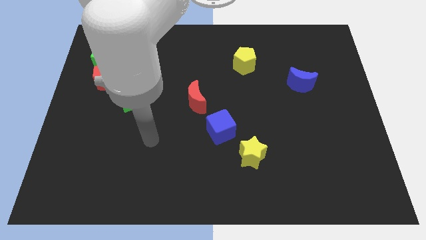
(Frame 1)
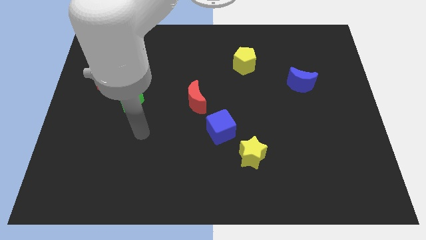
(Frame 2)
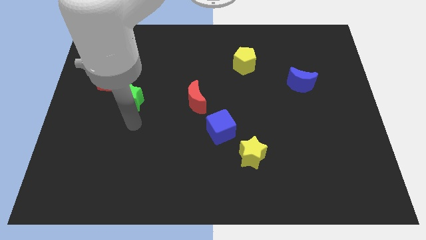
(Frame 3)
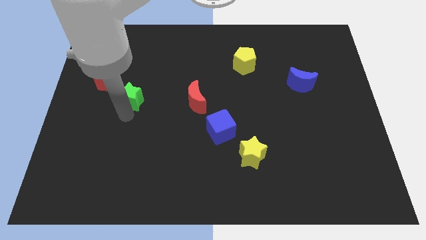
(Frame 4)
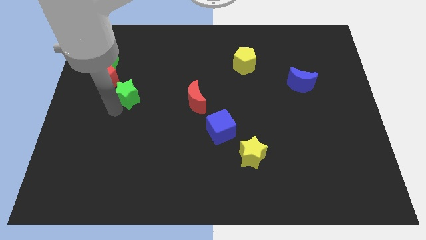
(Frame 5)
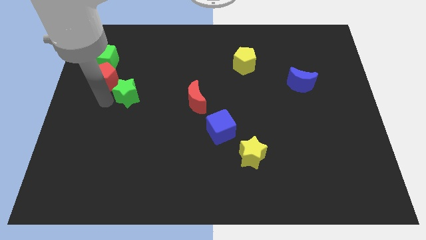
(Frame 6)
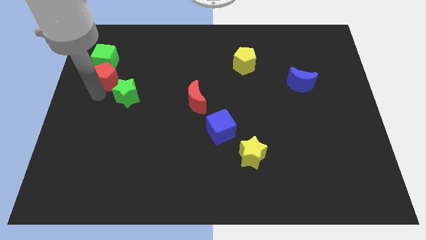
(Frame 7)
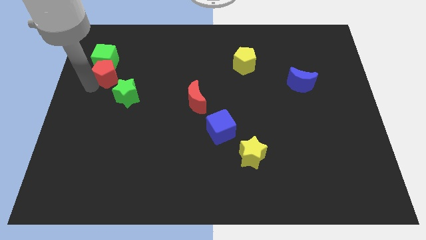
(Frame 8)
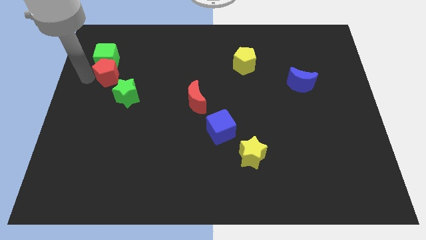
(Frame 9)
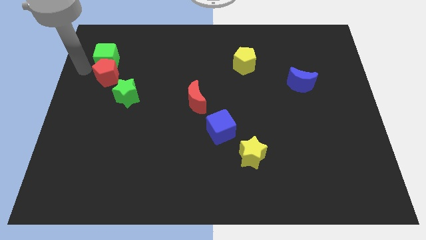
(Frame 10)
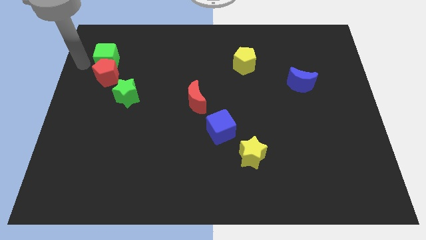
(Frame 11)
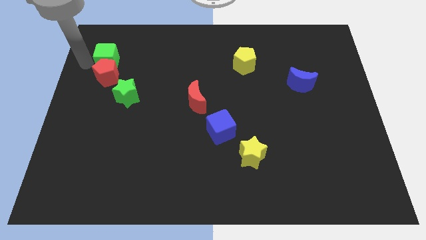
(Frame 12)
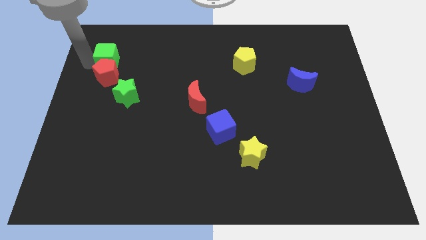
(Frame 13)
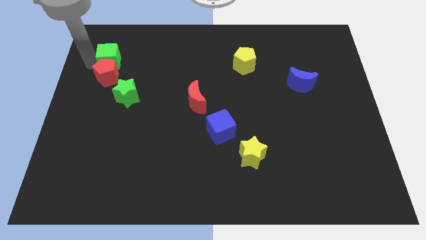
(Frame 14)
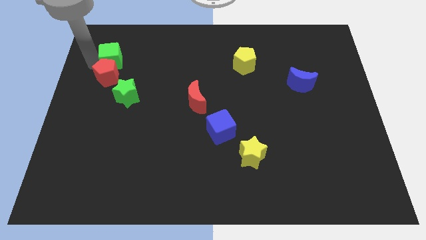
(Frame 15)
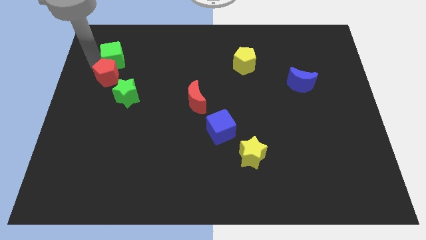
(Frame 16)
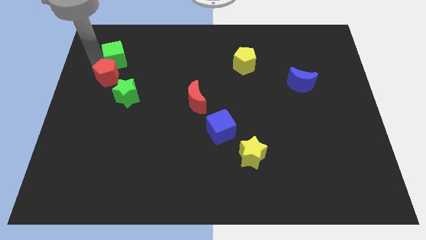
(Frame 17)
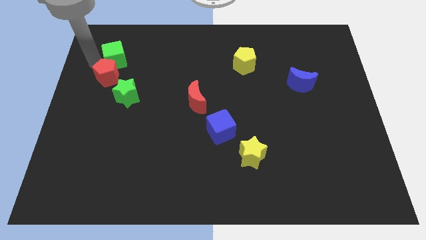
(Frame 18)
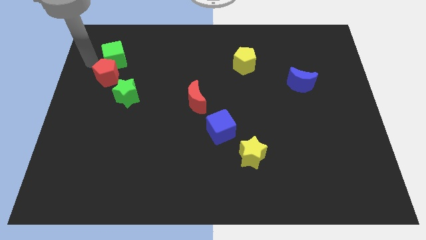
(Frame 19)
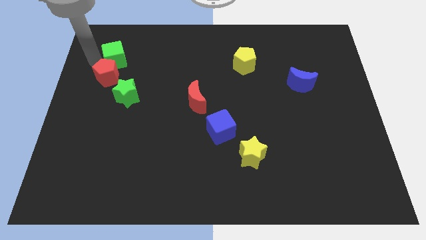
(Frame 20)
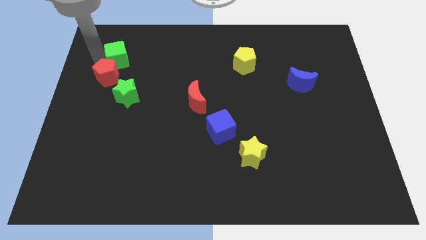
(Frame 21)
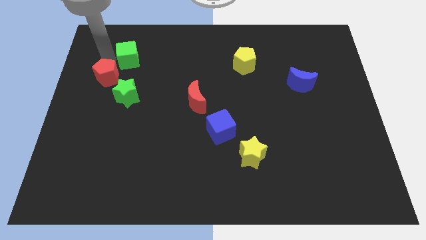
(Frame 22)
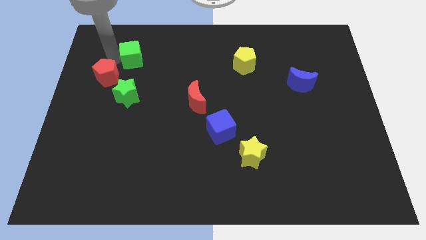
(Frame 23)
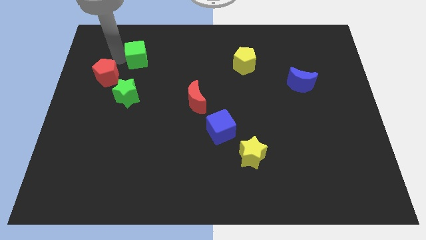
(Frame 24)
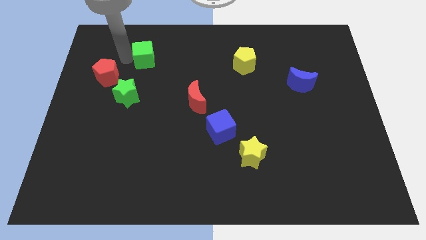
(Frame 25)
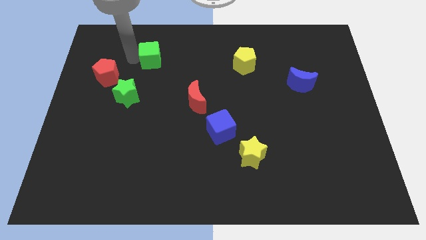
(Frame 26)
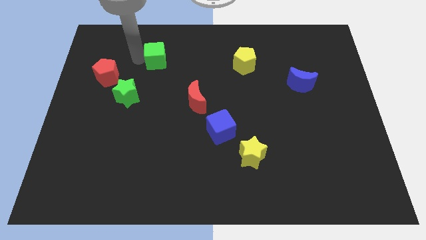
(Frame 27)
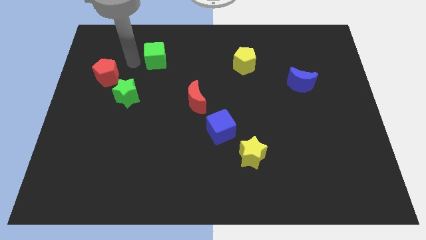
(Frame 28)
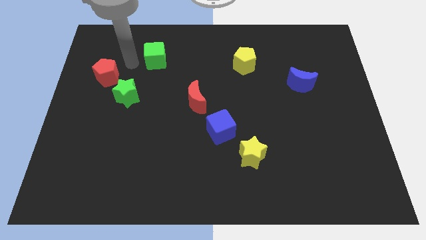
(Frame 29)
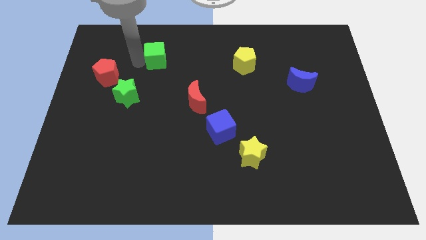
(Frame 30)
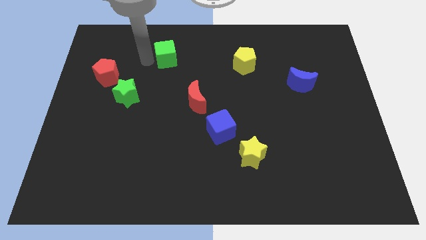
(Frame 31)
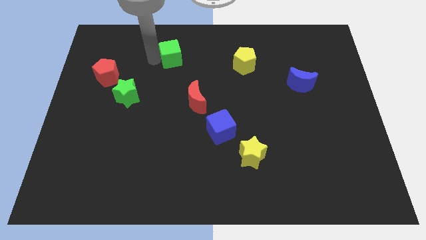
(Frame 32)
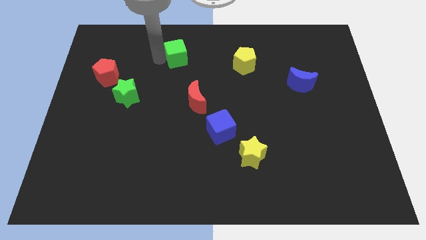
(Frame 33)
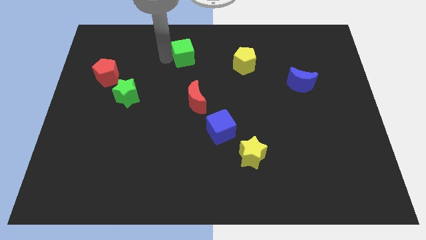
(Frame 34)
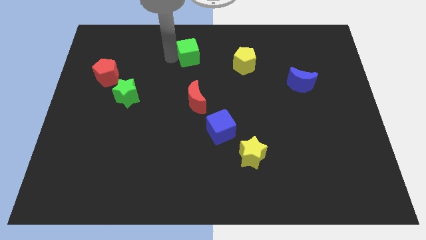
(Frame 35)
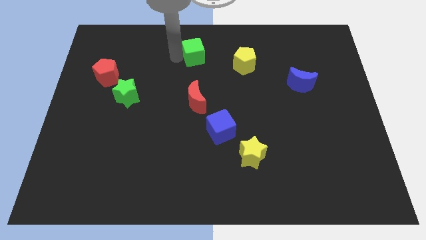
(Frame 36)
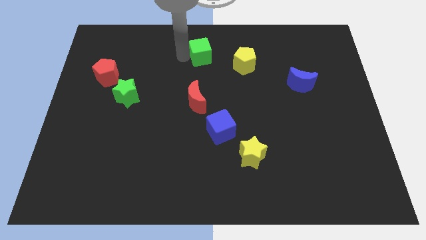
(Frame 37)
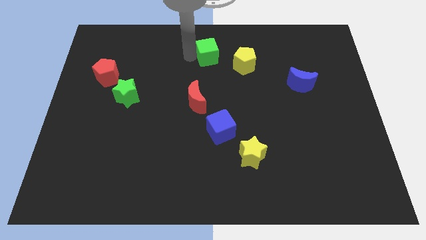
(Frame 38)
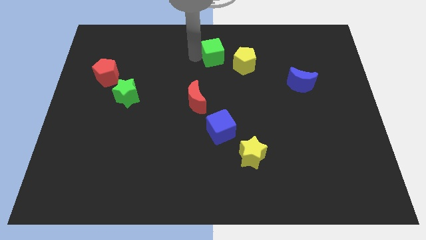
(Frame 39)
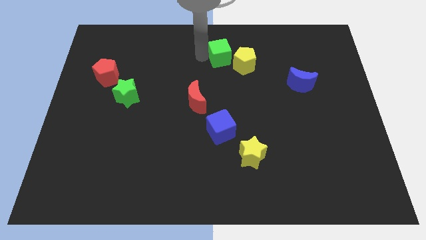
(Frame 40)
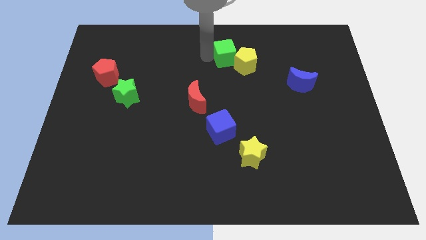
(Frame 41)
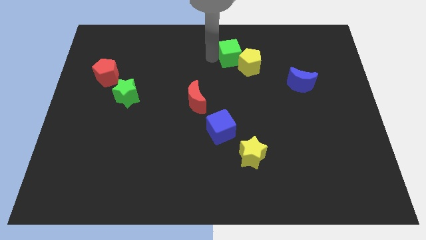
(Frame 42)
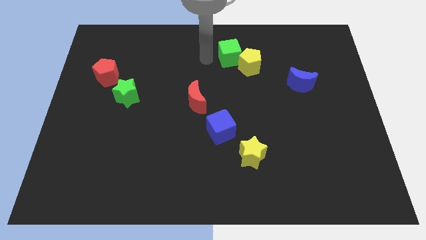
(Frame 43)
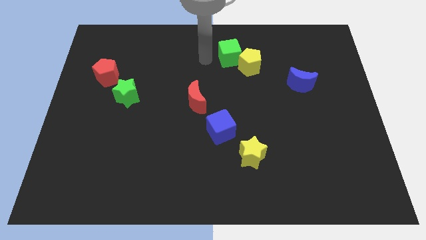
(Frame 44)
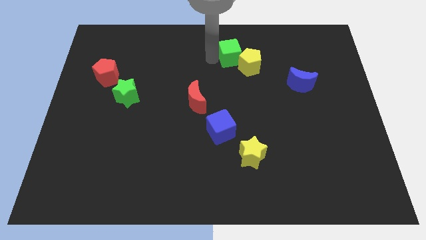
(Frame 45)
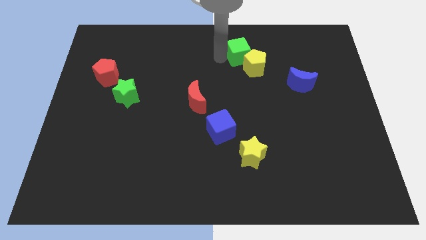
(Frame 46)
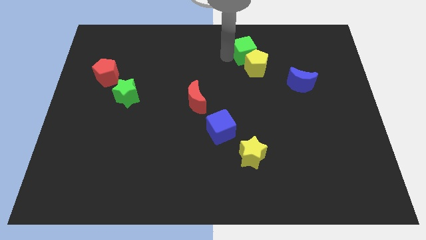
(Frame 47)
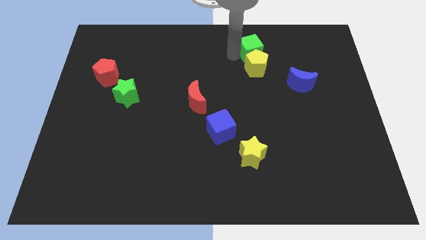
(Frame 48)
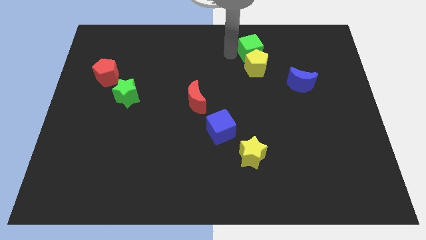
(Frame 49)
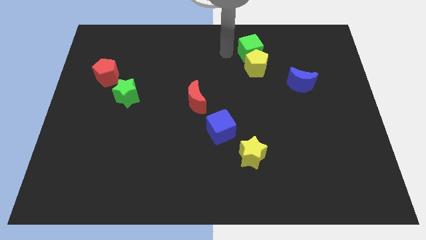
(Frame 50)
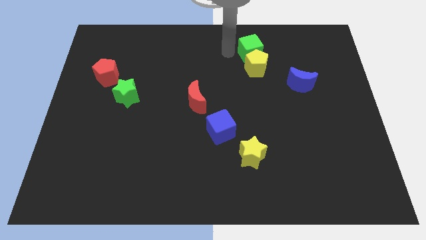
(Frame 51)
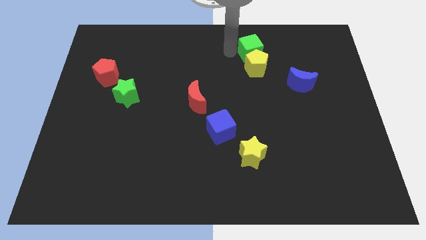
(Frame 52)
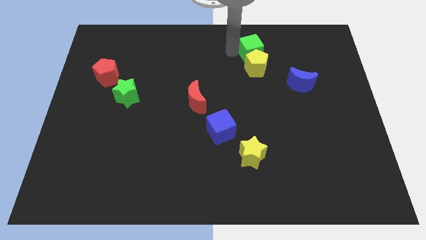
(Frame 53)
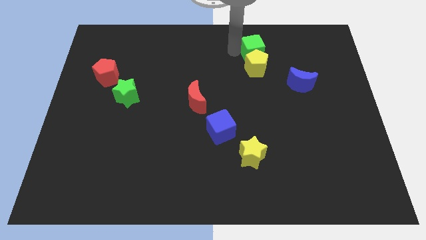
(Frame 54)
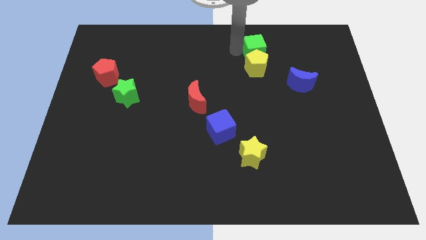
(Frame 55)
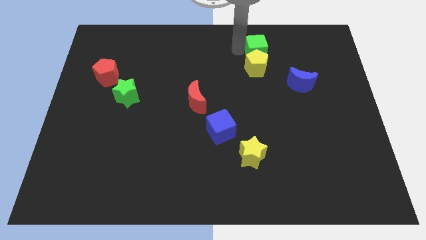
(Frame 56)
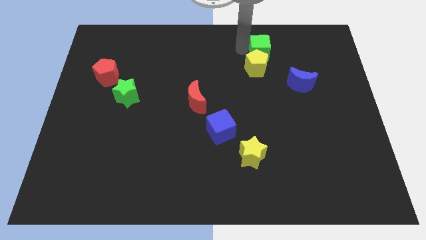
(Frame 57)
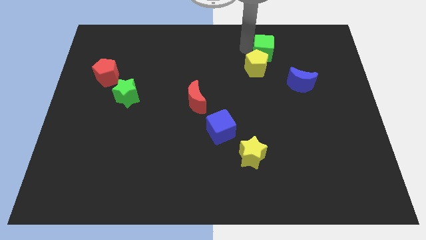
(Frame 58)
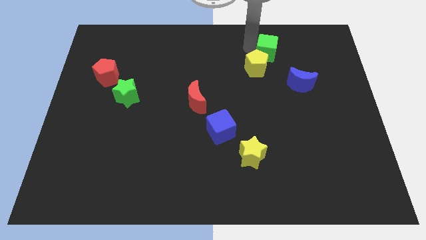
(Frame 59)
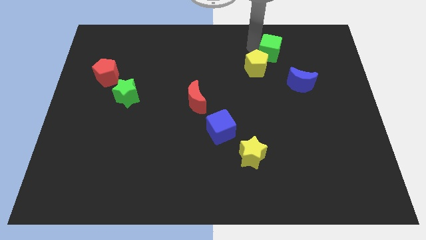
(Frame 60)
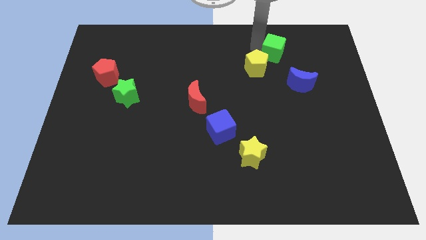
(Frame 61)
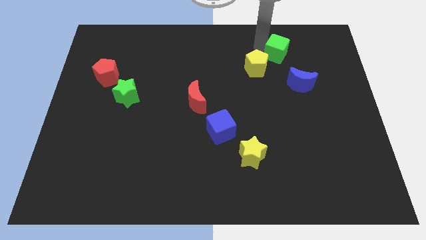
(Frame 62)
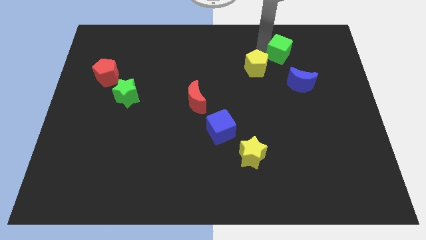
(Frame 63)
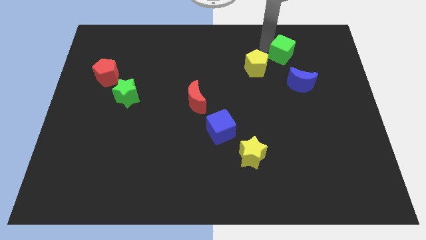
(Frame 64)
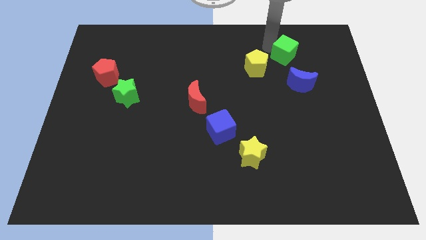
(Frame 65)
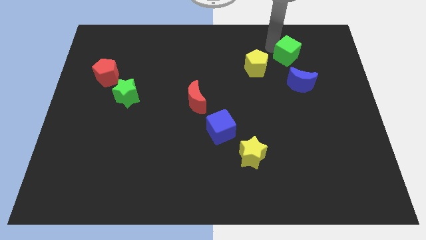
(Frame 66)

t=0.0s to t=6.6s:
move the green cube right of the yellow pentagon
